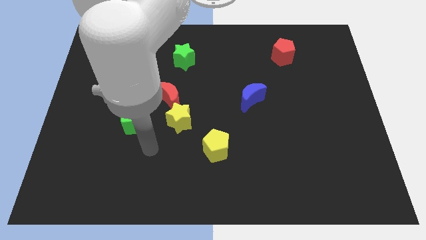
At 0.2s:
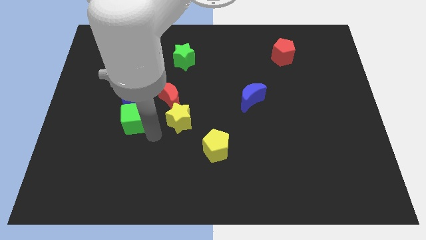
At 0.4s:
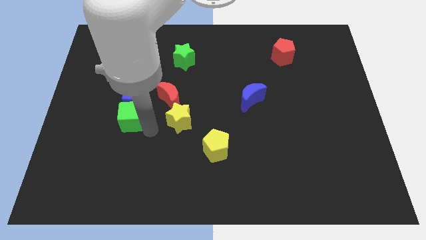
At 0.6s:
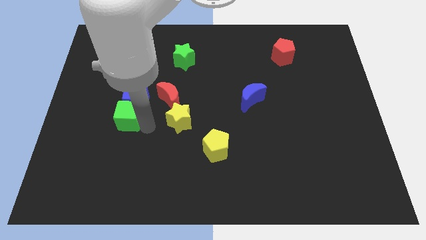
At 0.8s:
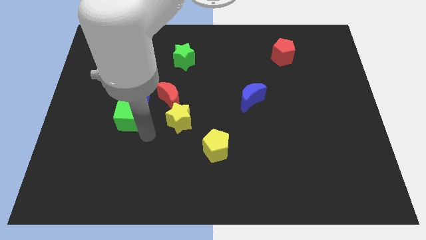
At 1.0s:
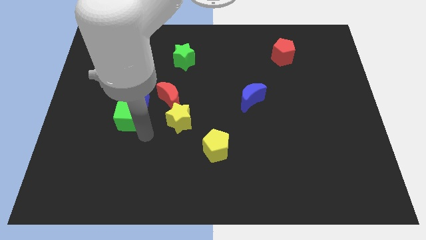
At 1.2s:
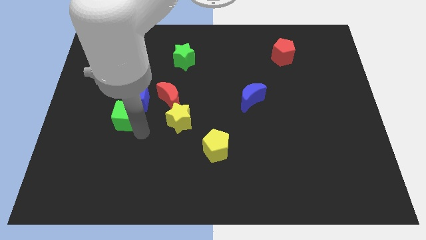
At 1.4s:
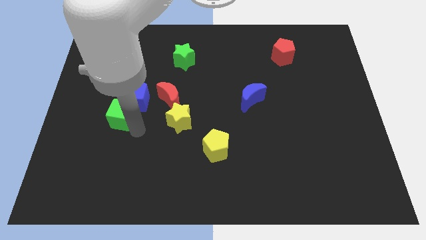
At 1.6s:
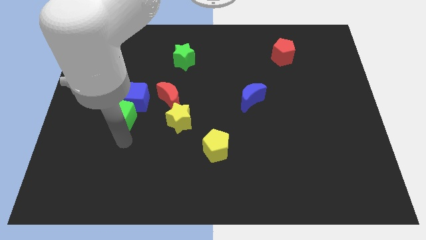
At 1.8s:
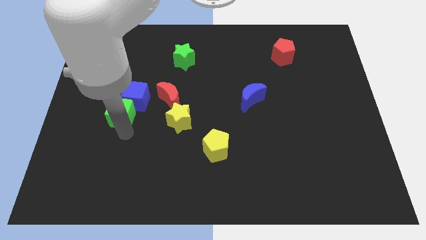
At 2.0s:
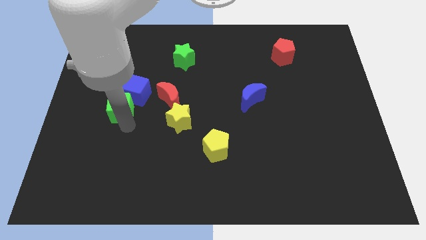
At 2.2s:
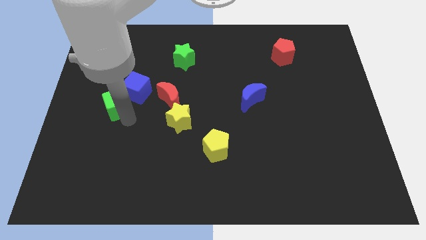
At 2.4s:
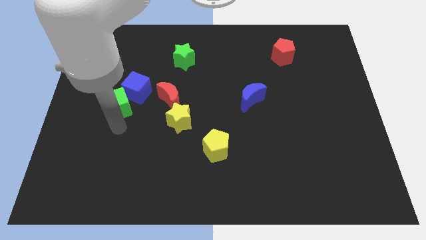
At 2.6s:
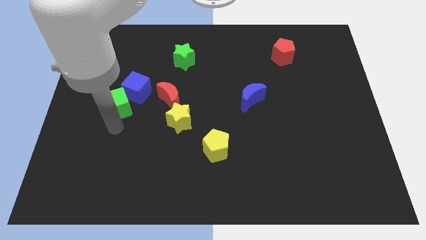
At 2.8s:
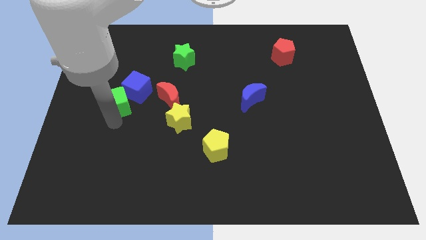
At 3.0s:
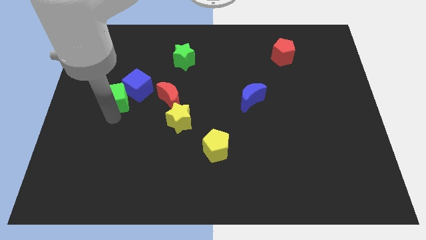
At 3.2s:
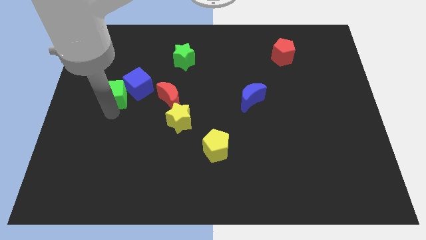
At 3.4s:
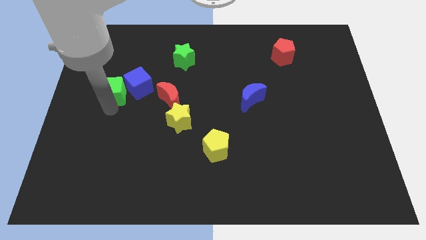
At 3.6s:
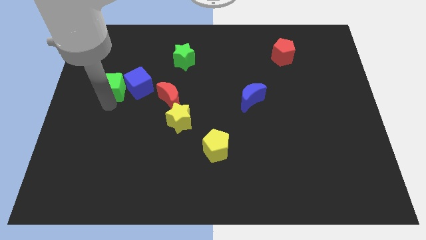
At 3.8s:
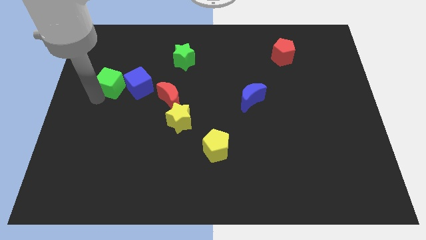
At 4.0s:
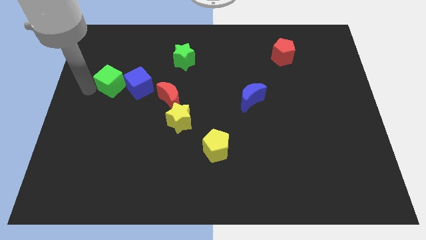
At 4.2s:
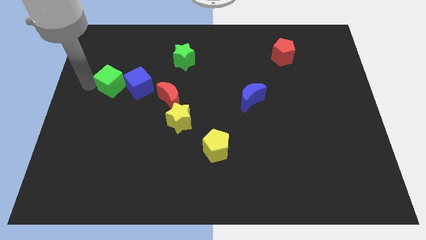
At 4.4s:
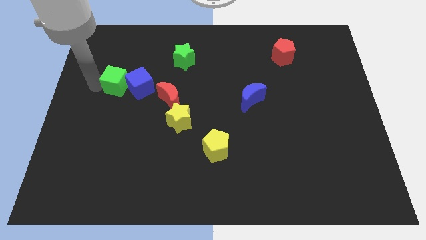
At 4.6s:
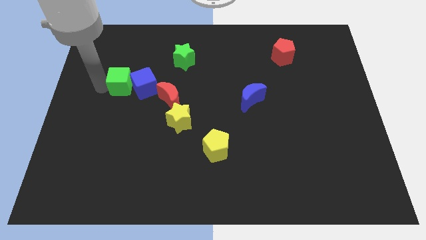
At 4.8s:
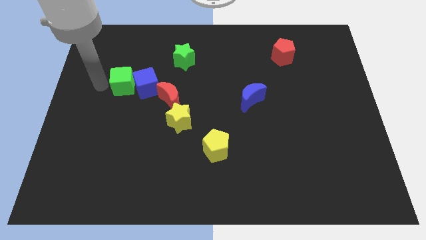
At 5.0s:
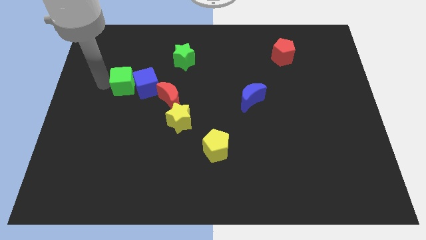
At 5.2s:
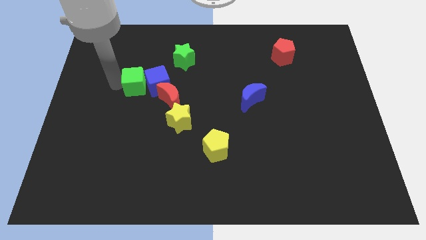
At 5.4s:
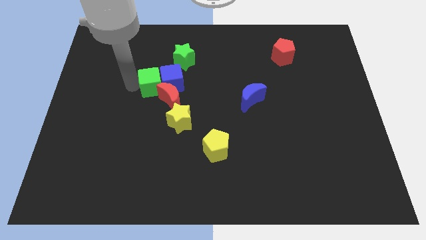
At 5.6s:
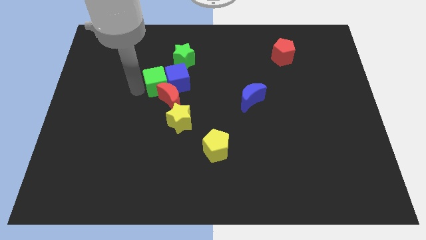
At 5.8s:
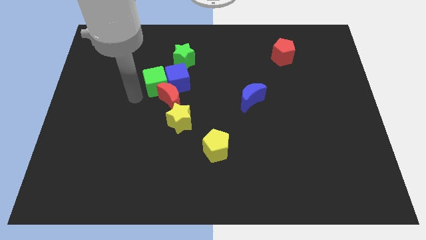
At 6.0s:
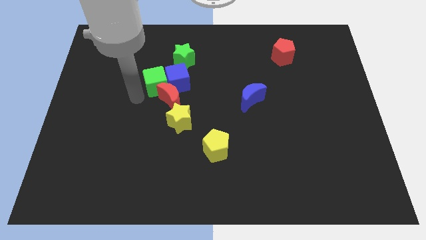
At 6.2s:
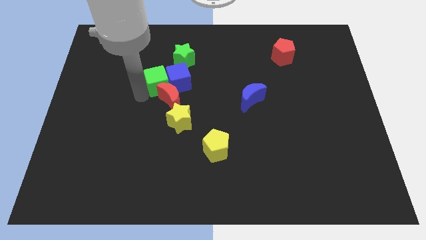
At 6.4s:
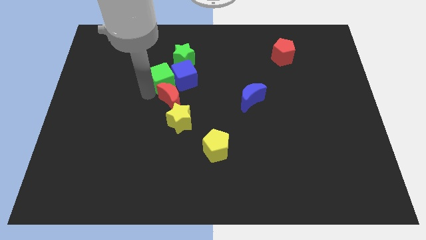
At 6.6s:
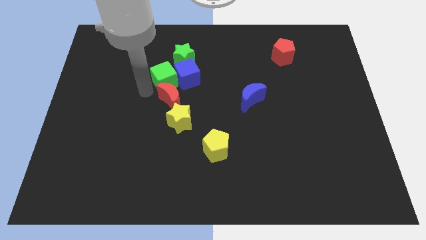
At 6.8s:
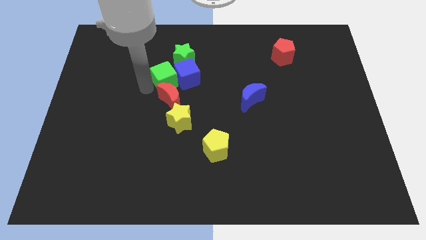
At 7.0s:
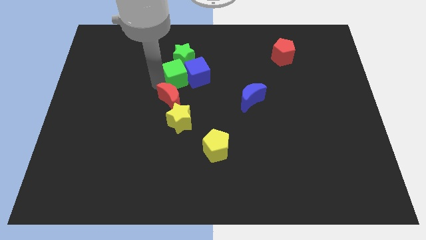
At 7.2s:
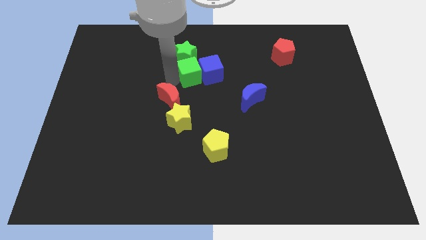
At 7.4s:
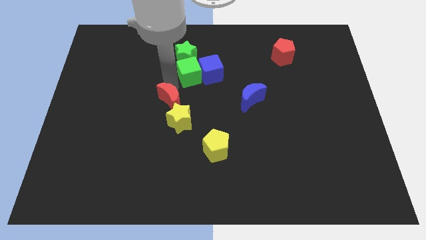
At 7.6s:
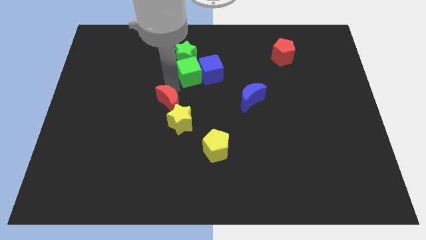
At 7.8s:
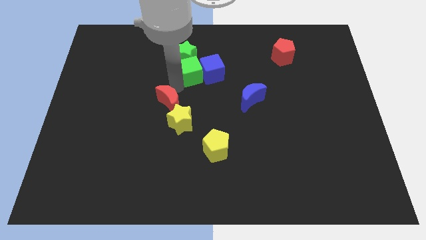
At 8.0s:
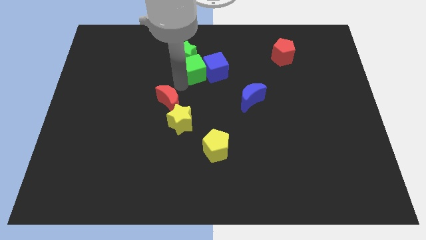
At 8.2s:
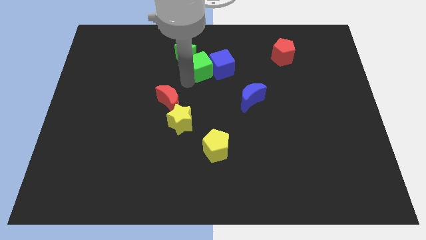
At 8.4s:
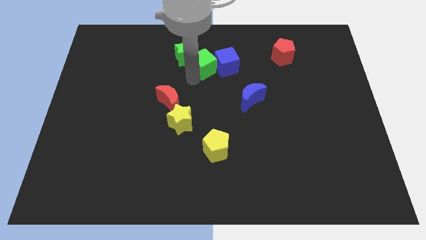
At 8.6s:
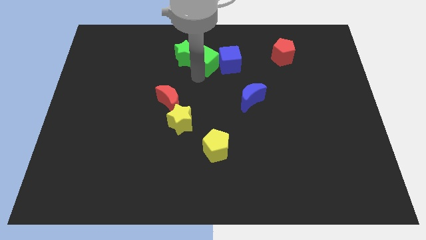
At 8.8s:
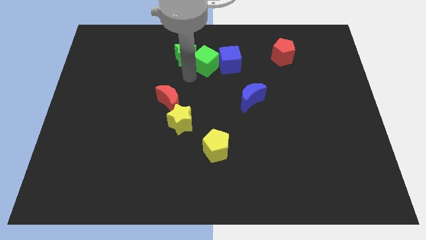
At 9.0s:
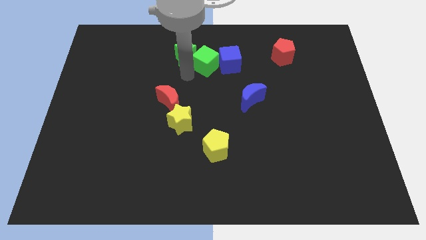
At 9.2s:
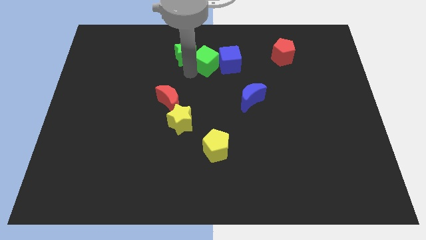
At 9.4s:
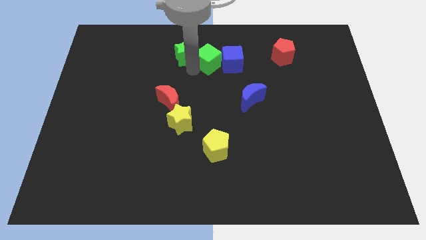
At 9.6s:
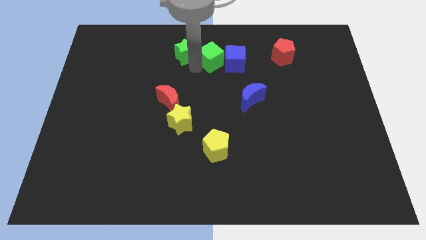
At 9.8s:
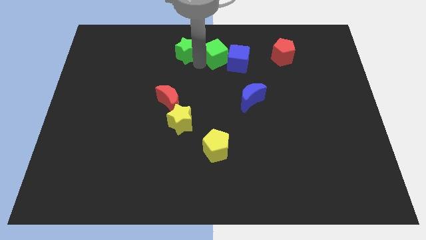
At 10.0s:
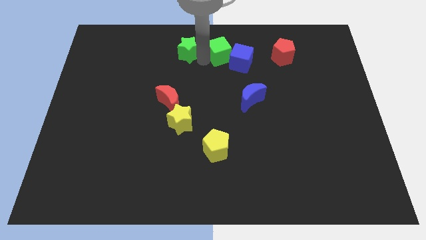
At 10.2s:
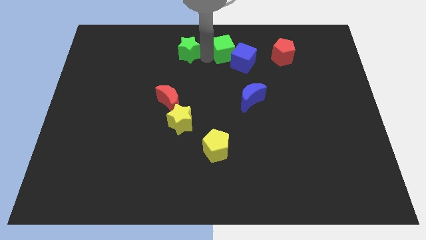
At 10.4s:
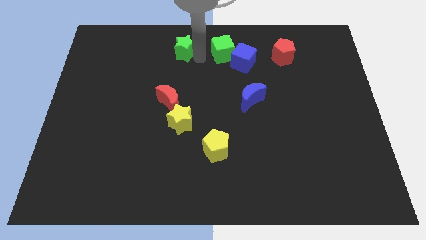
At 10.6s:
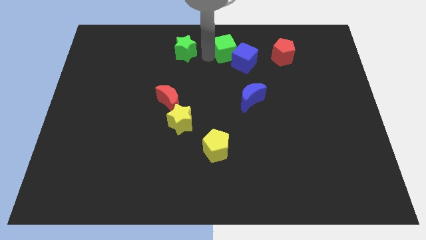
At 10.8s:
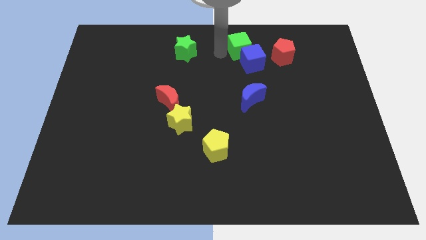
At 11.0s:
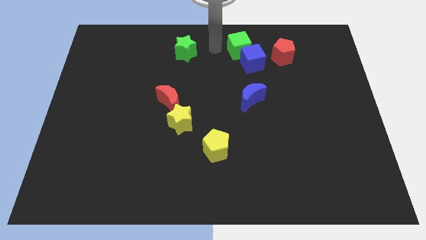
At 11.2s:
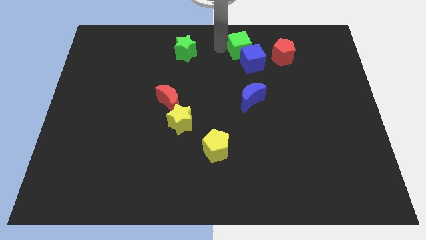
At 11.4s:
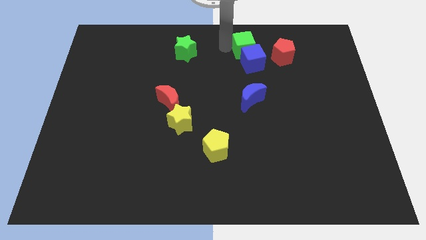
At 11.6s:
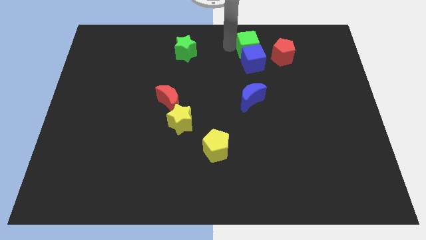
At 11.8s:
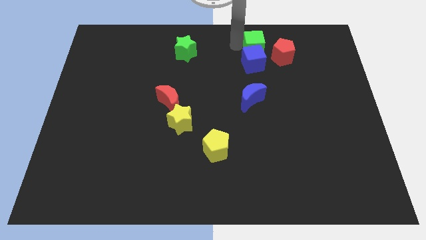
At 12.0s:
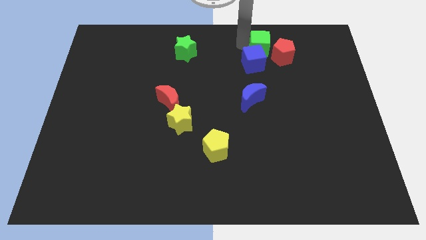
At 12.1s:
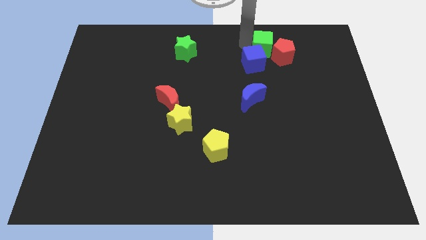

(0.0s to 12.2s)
push the green cube next to the red pentagon

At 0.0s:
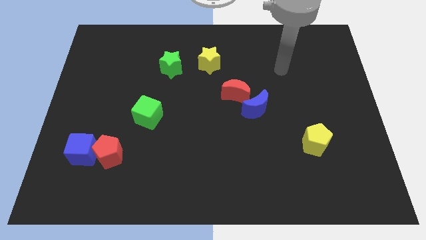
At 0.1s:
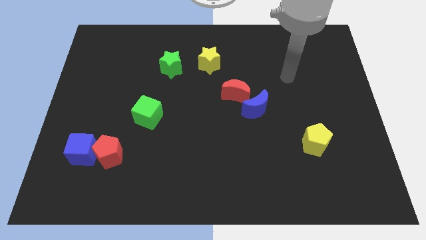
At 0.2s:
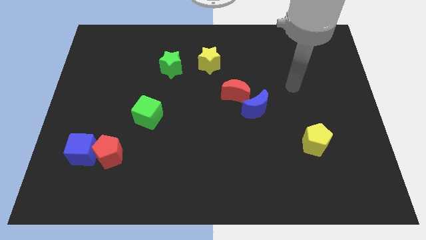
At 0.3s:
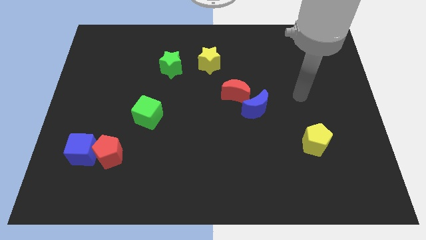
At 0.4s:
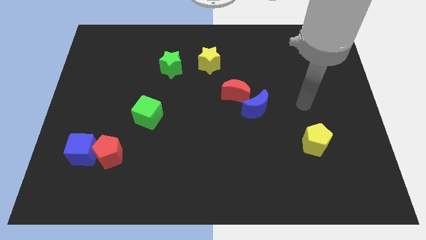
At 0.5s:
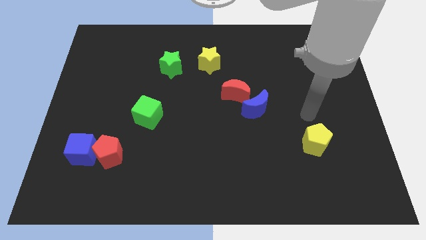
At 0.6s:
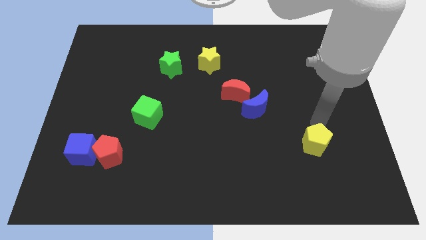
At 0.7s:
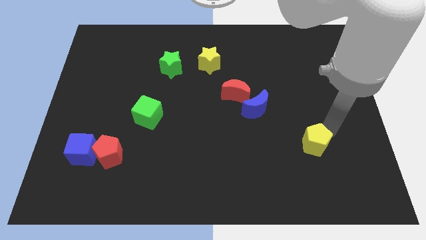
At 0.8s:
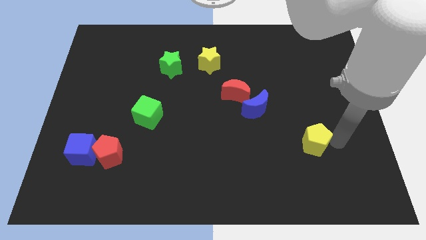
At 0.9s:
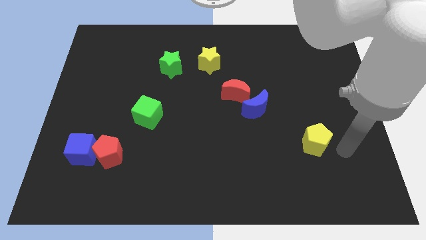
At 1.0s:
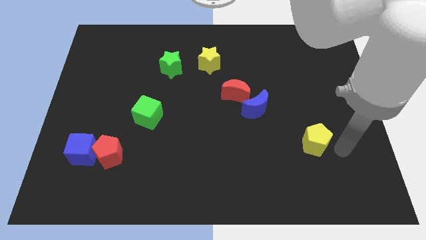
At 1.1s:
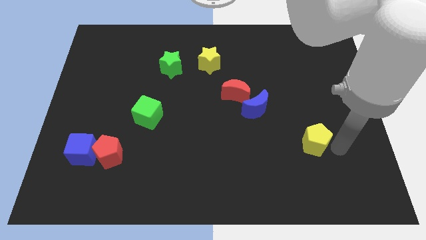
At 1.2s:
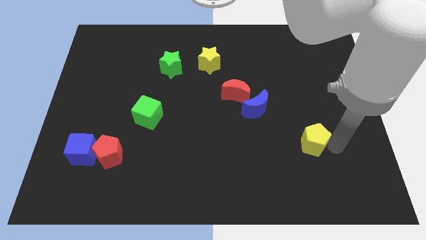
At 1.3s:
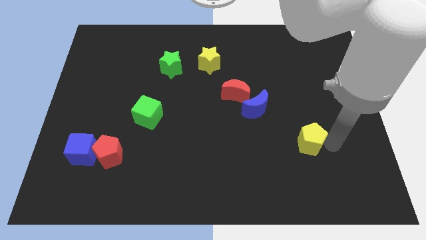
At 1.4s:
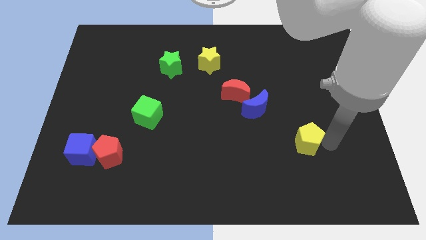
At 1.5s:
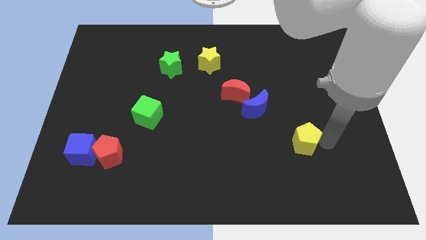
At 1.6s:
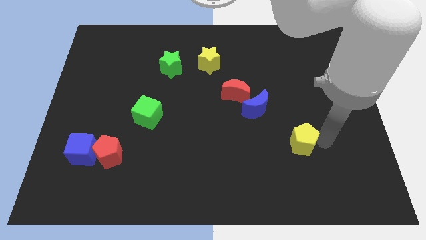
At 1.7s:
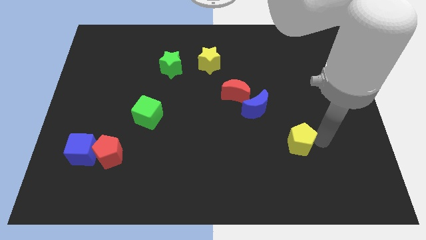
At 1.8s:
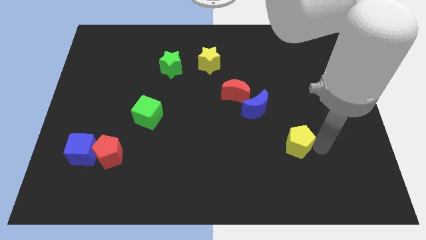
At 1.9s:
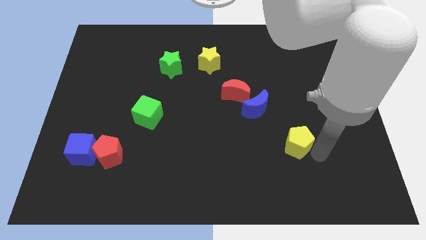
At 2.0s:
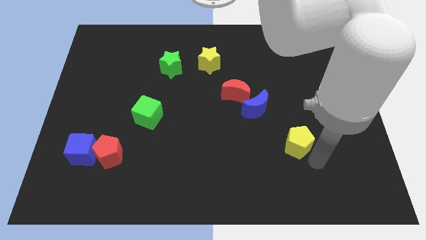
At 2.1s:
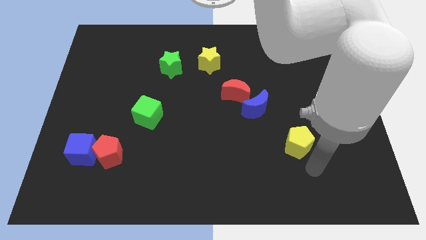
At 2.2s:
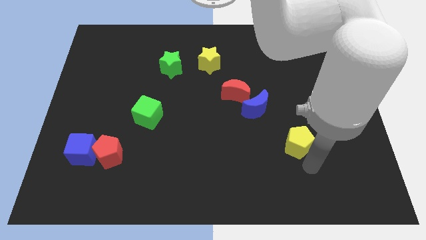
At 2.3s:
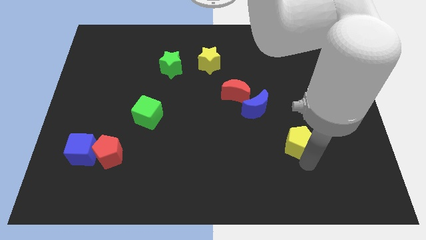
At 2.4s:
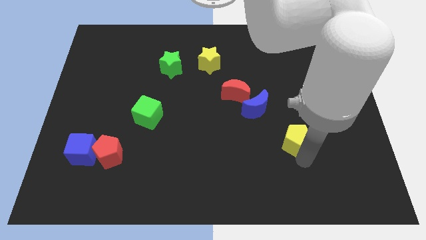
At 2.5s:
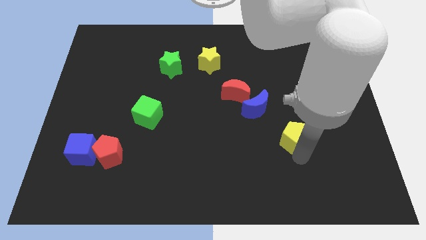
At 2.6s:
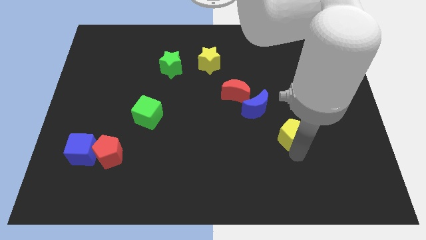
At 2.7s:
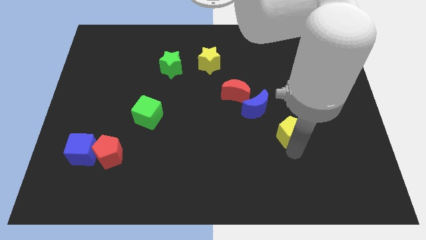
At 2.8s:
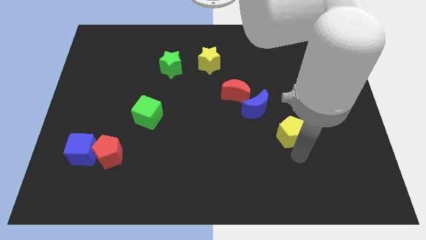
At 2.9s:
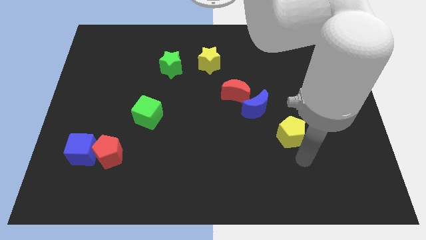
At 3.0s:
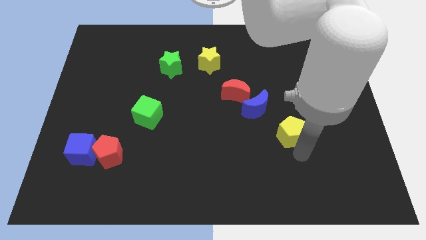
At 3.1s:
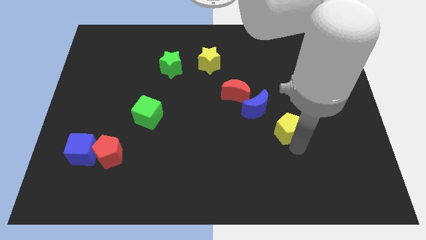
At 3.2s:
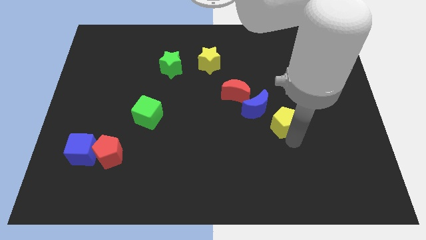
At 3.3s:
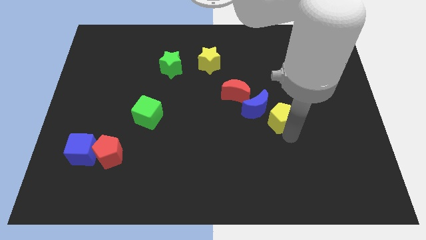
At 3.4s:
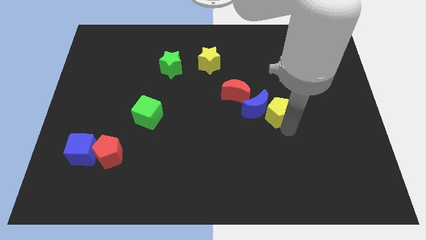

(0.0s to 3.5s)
move the yellow pentagon close to the blue moon
